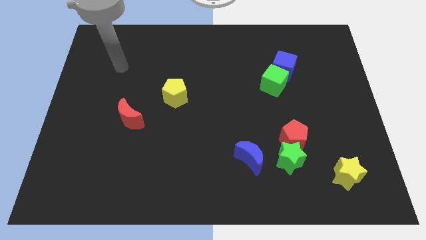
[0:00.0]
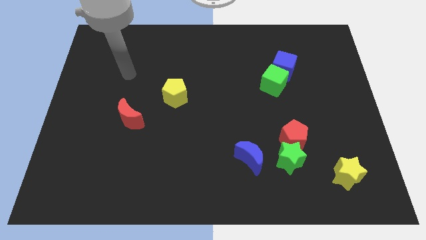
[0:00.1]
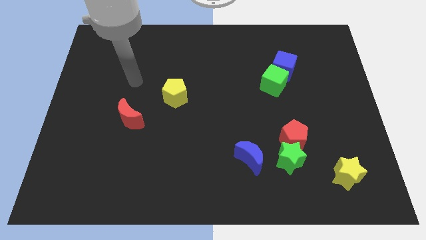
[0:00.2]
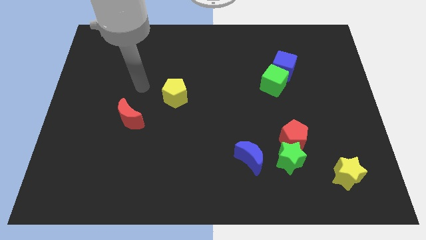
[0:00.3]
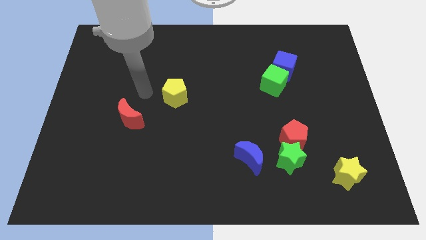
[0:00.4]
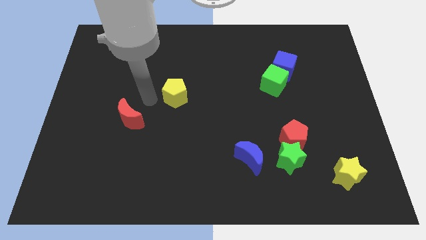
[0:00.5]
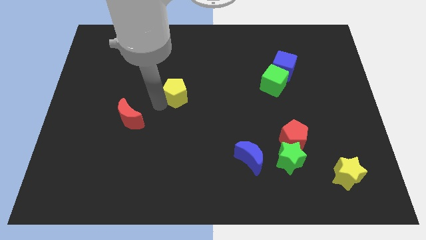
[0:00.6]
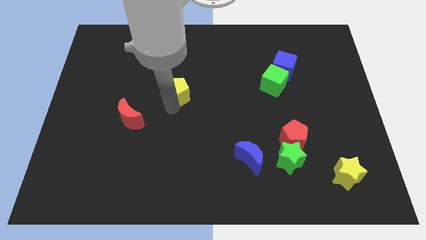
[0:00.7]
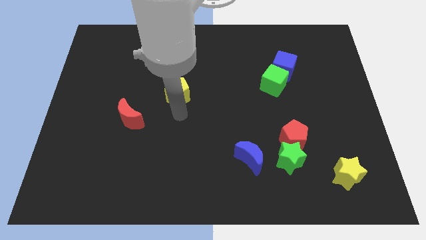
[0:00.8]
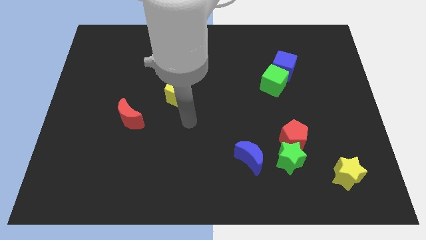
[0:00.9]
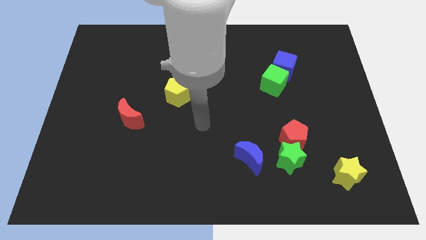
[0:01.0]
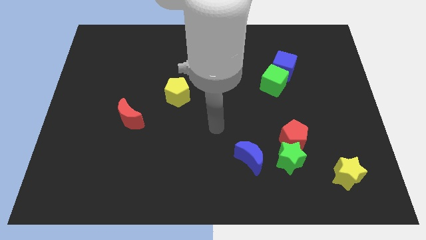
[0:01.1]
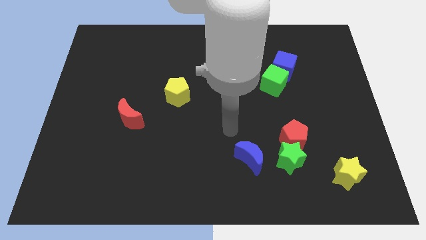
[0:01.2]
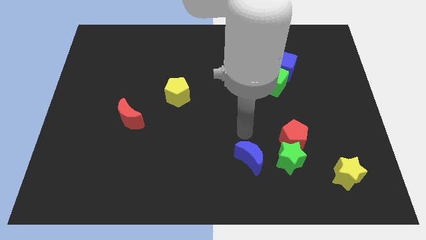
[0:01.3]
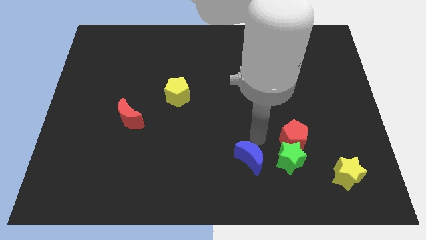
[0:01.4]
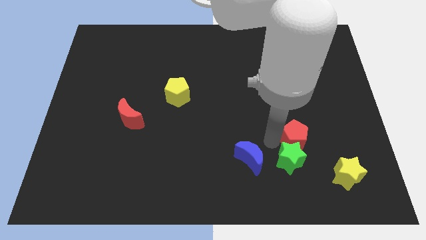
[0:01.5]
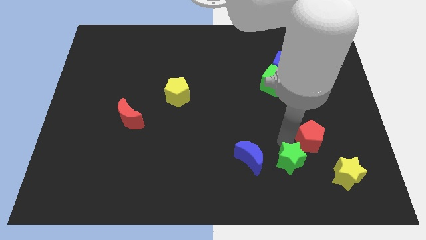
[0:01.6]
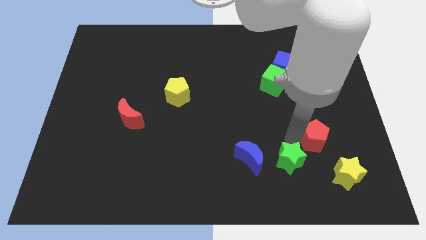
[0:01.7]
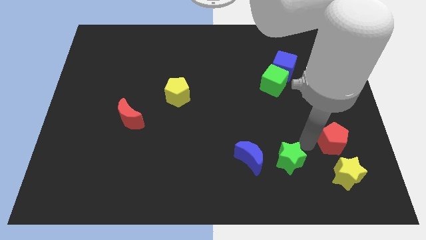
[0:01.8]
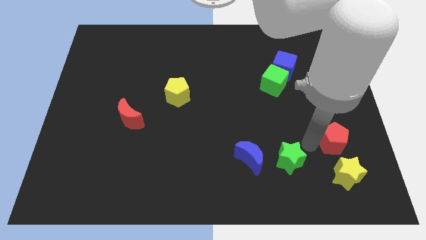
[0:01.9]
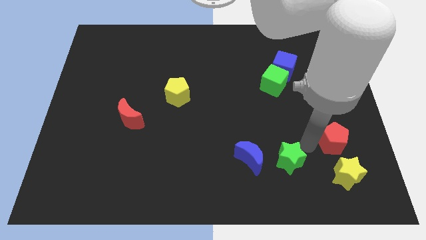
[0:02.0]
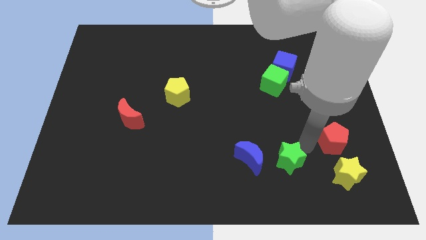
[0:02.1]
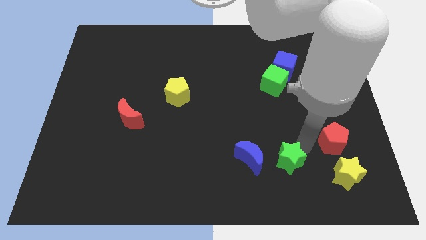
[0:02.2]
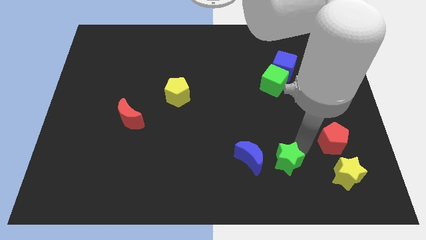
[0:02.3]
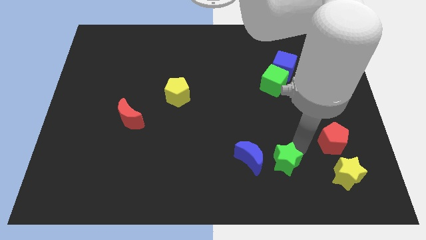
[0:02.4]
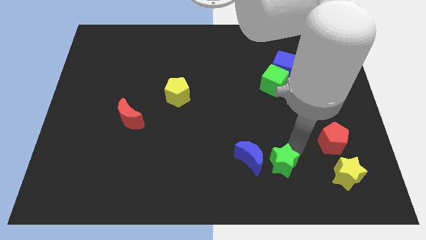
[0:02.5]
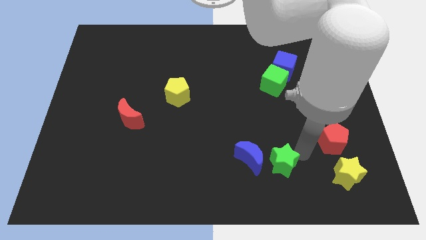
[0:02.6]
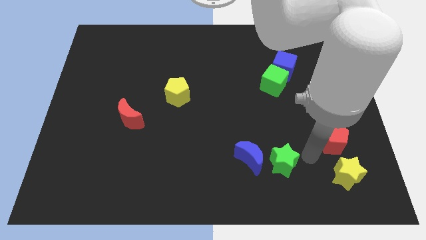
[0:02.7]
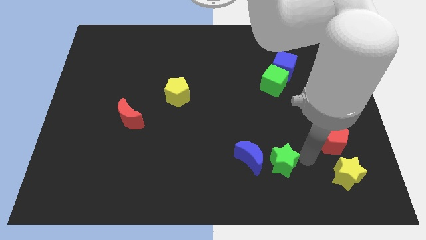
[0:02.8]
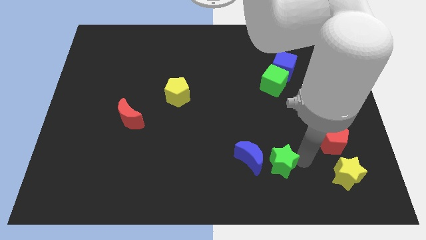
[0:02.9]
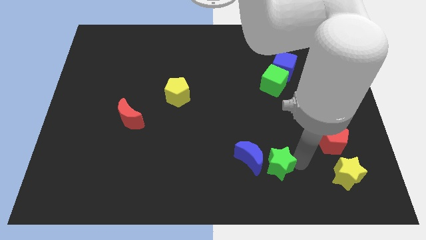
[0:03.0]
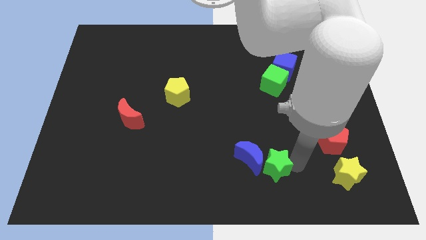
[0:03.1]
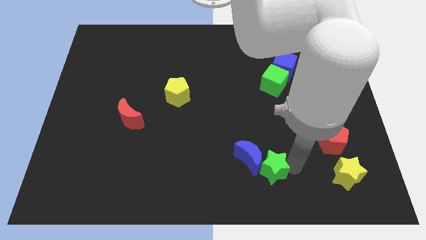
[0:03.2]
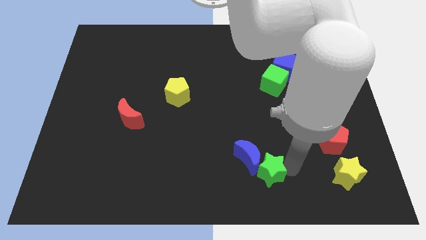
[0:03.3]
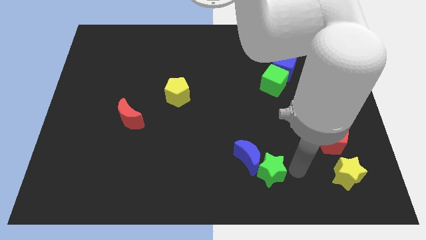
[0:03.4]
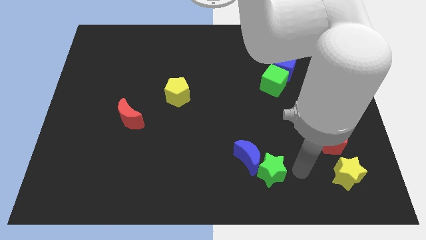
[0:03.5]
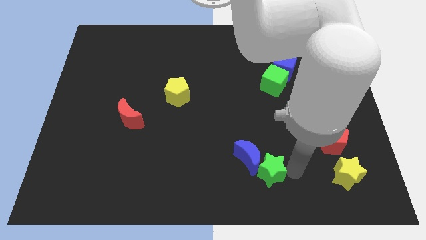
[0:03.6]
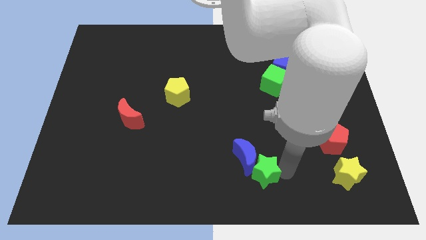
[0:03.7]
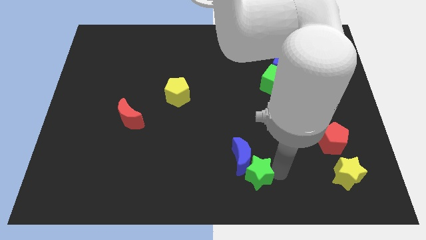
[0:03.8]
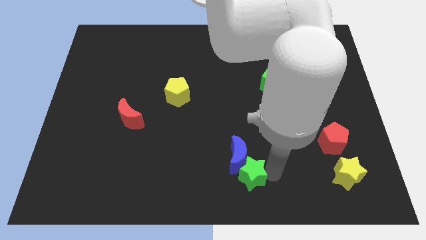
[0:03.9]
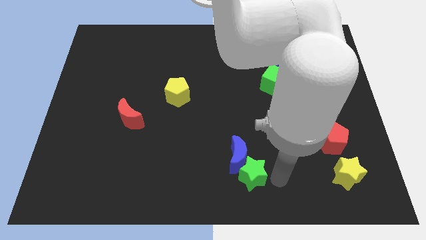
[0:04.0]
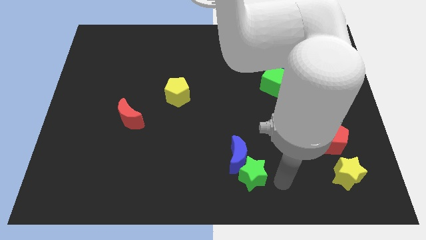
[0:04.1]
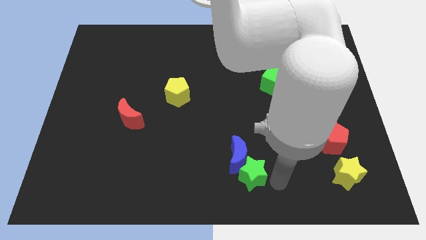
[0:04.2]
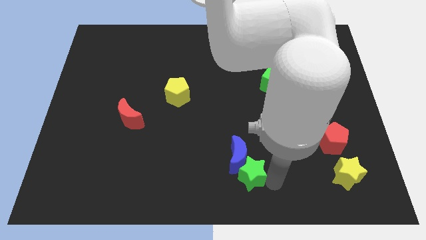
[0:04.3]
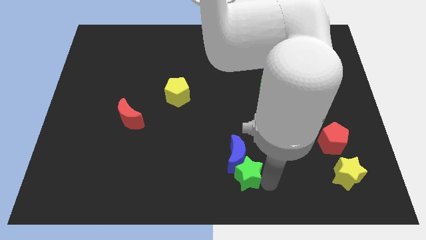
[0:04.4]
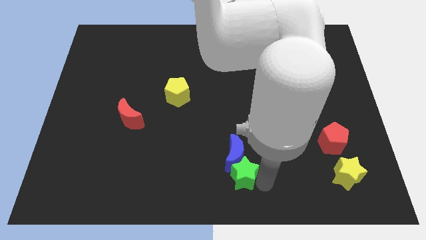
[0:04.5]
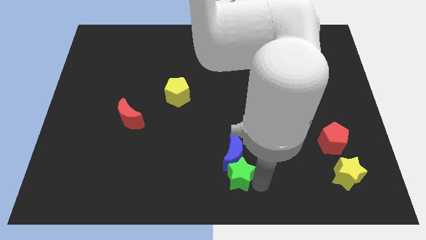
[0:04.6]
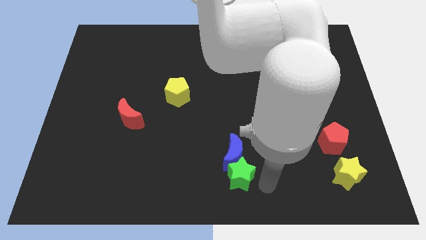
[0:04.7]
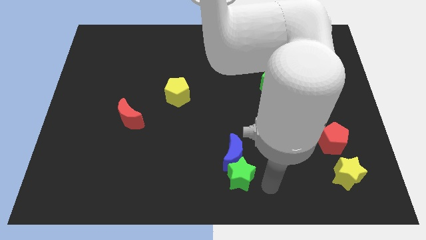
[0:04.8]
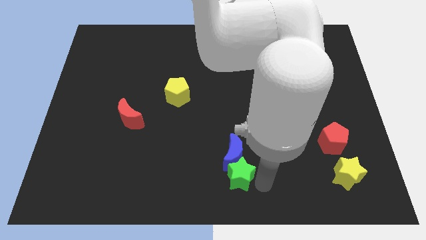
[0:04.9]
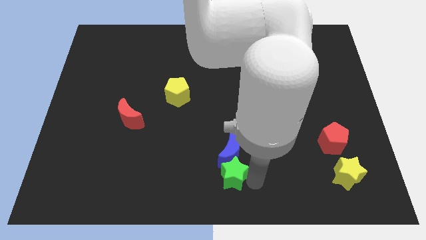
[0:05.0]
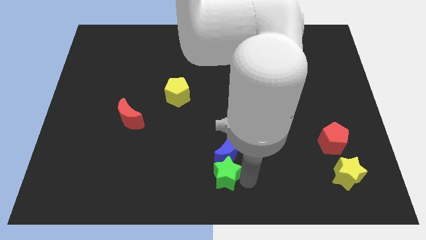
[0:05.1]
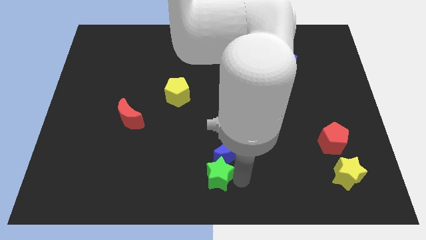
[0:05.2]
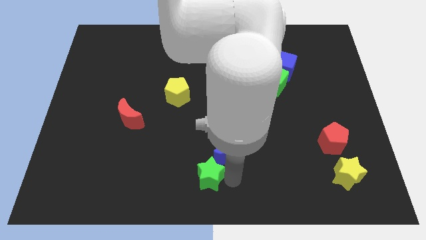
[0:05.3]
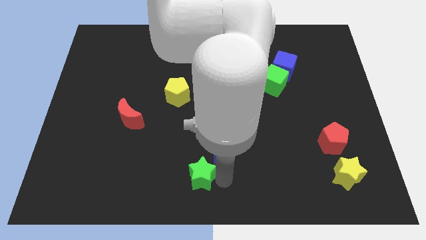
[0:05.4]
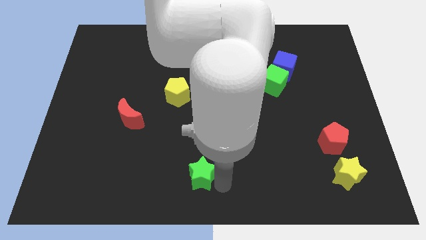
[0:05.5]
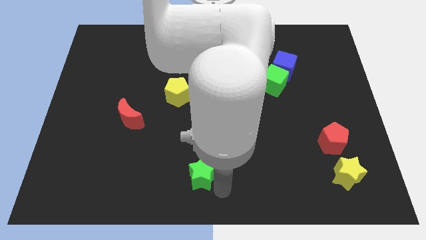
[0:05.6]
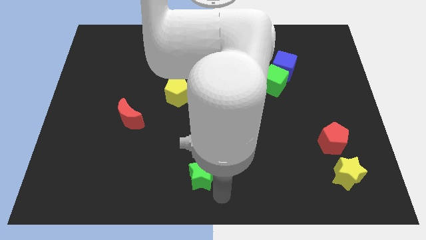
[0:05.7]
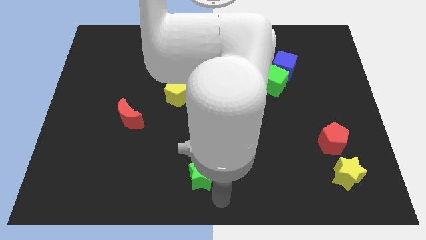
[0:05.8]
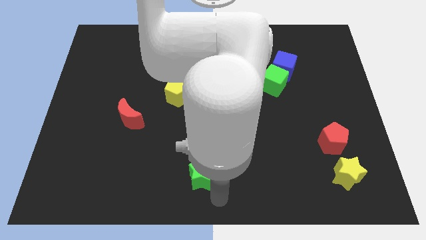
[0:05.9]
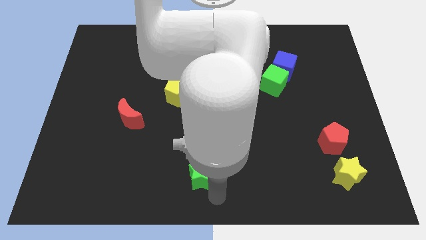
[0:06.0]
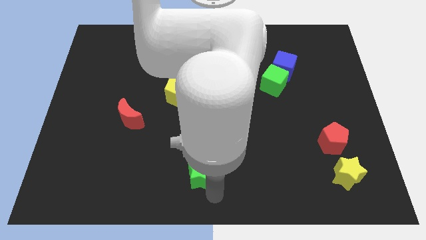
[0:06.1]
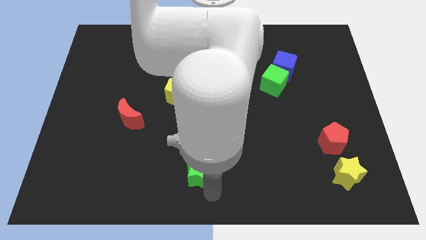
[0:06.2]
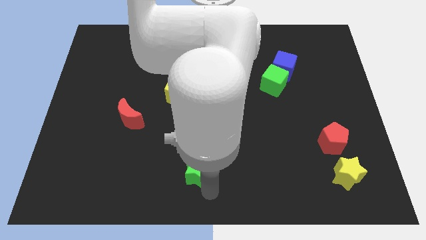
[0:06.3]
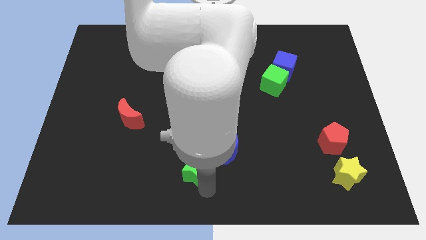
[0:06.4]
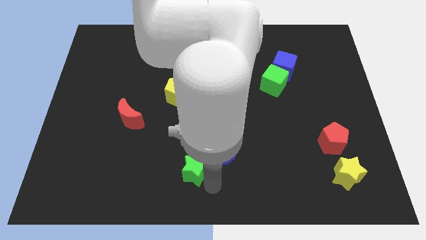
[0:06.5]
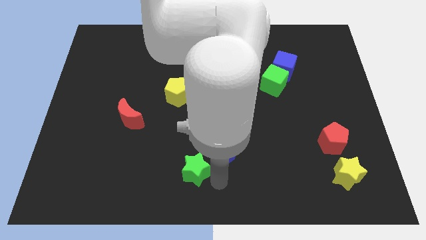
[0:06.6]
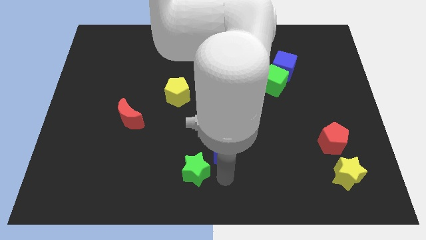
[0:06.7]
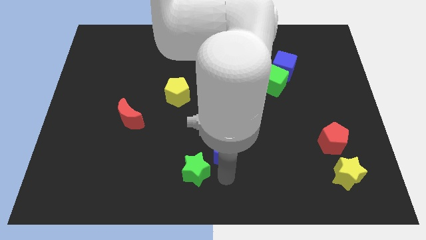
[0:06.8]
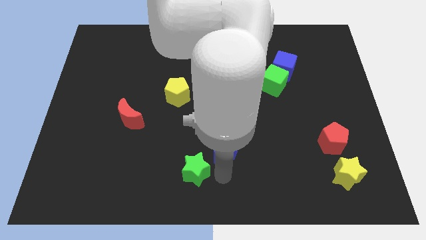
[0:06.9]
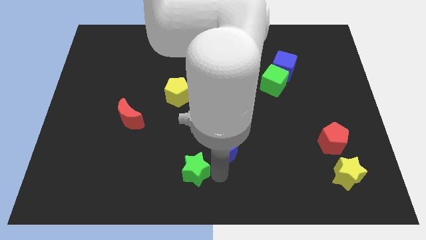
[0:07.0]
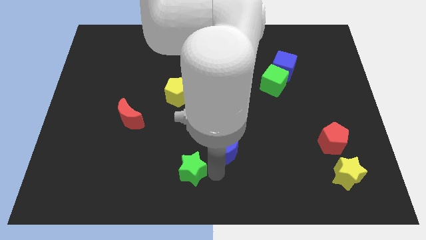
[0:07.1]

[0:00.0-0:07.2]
move the green star left

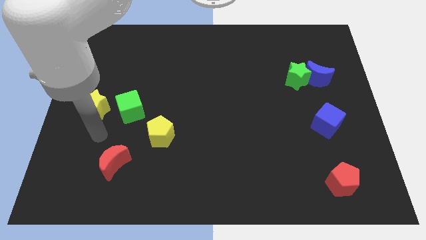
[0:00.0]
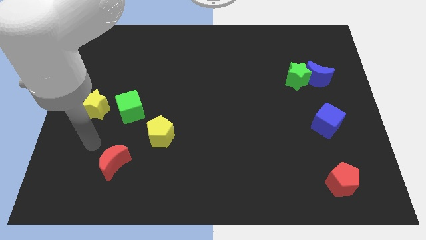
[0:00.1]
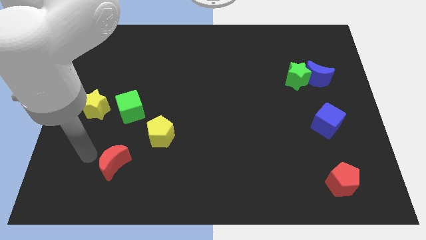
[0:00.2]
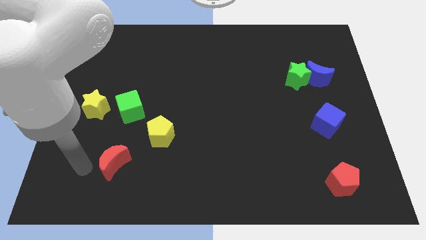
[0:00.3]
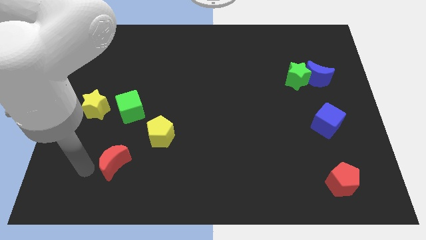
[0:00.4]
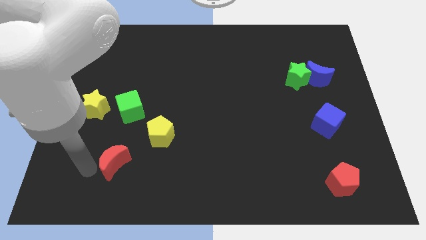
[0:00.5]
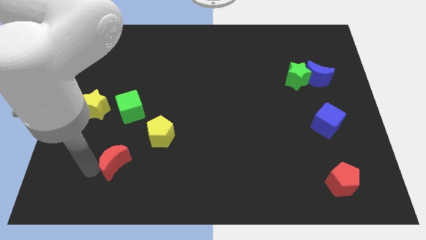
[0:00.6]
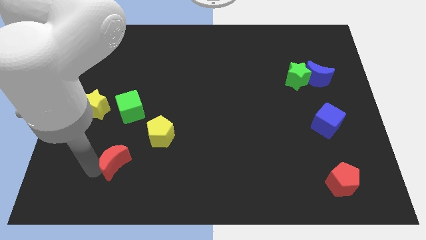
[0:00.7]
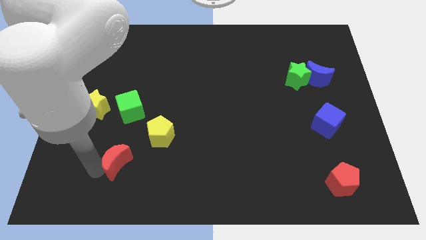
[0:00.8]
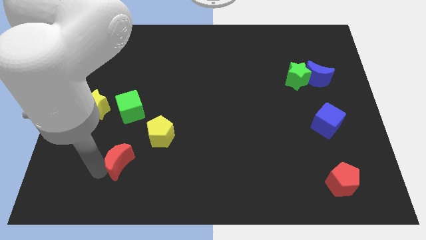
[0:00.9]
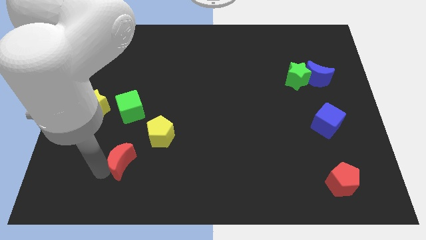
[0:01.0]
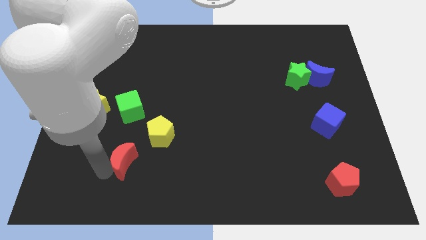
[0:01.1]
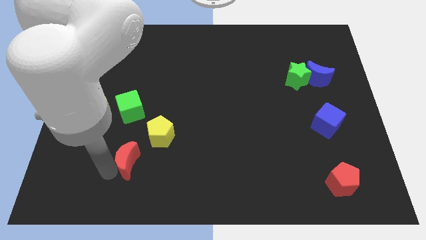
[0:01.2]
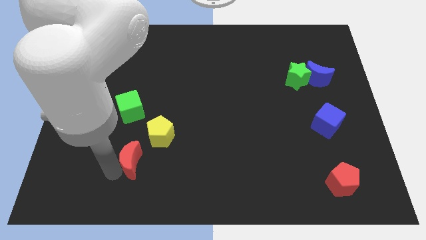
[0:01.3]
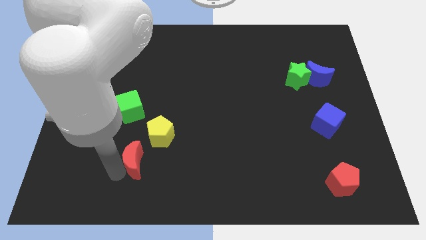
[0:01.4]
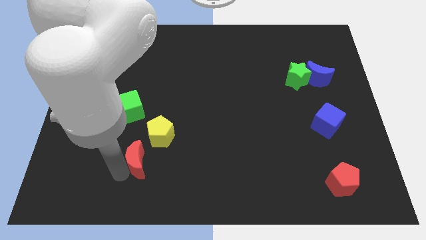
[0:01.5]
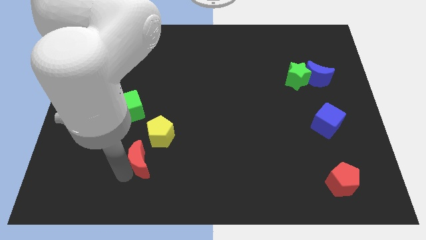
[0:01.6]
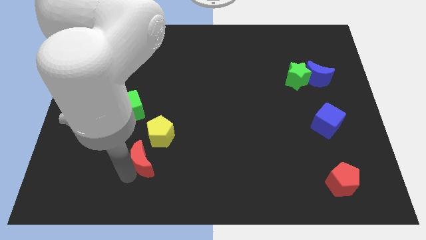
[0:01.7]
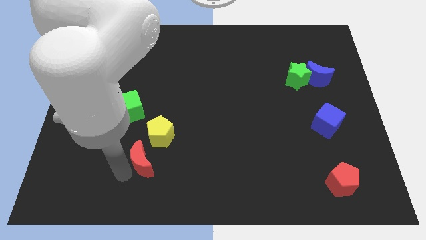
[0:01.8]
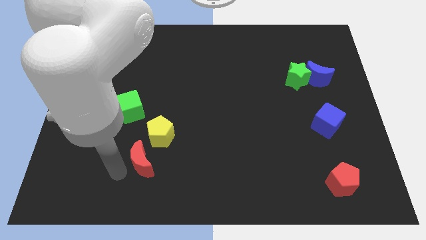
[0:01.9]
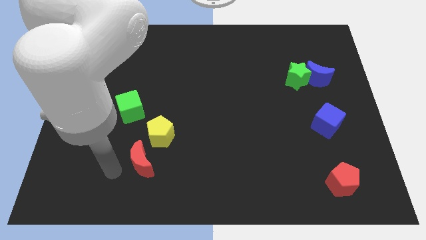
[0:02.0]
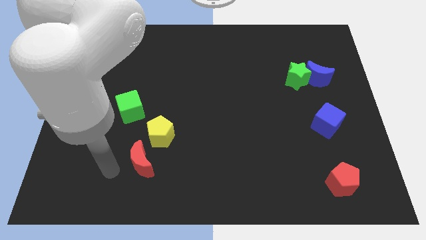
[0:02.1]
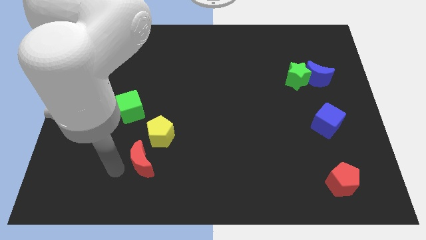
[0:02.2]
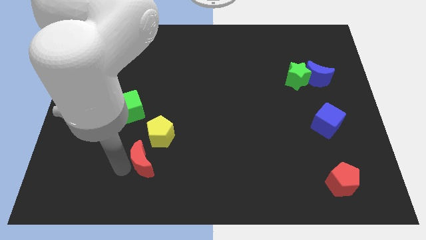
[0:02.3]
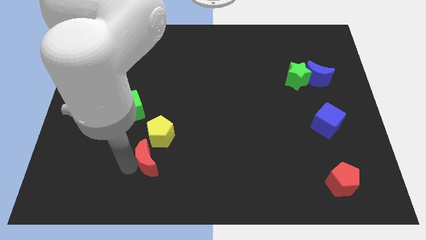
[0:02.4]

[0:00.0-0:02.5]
slightly move the red moon to the right
